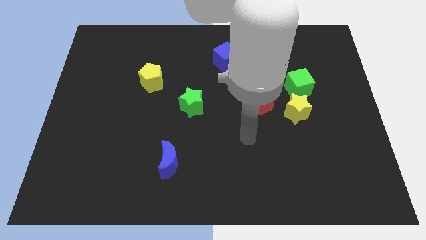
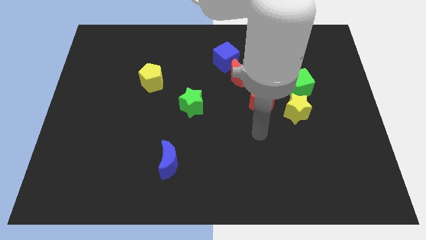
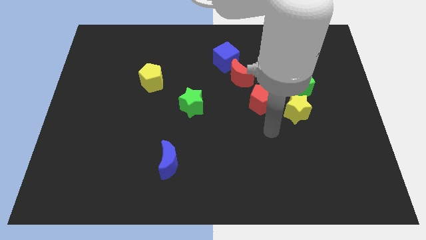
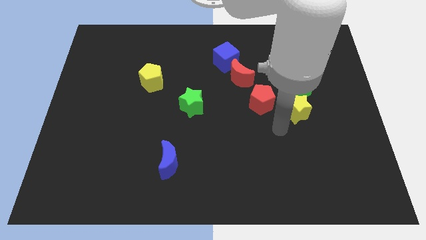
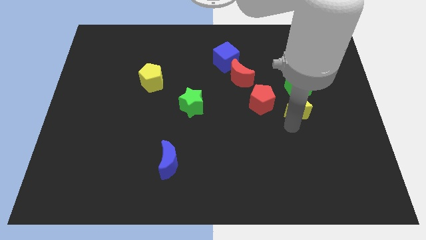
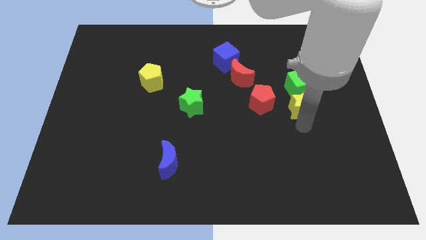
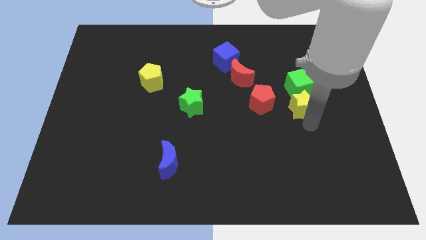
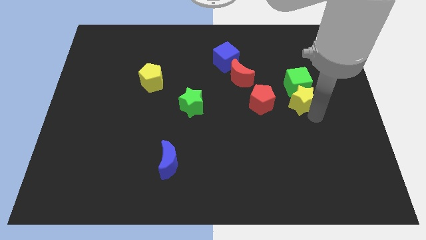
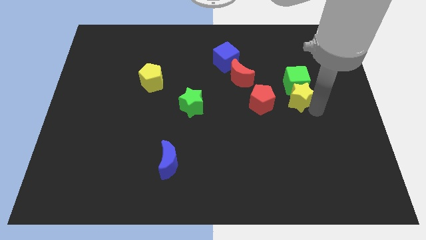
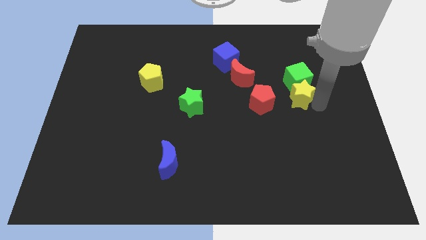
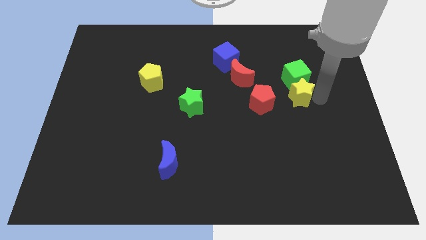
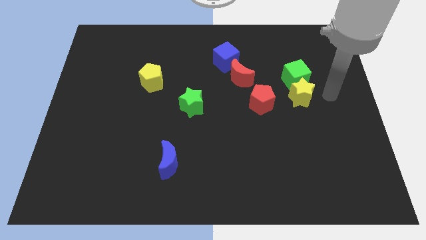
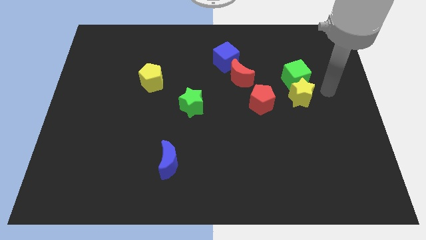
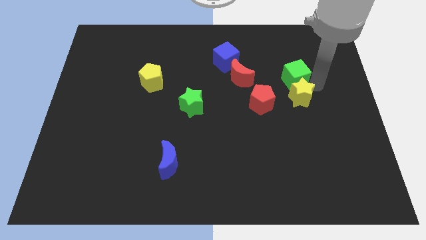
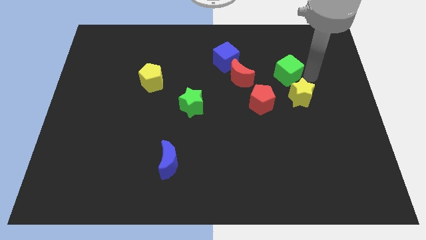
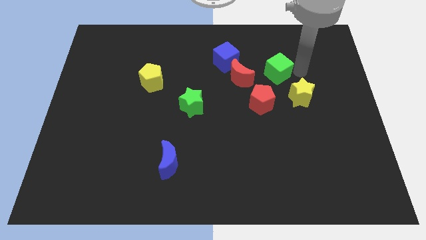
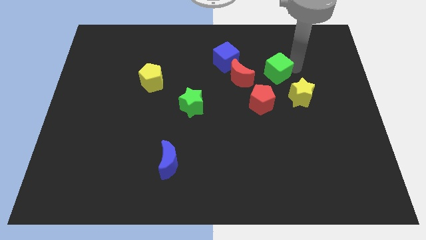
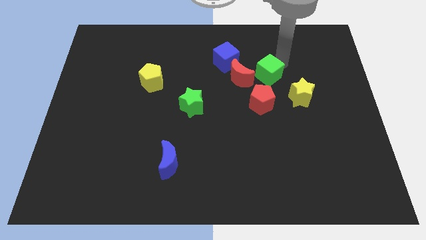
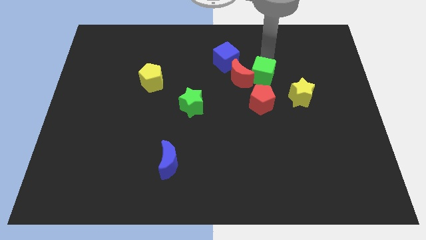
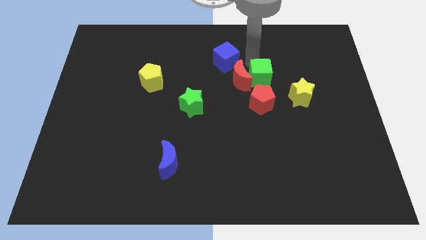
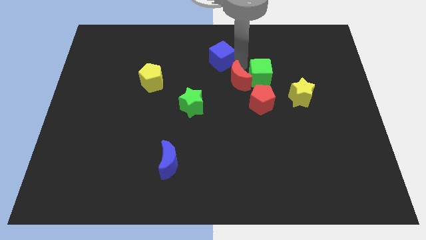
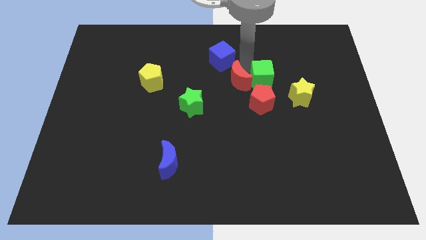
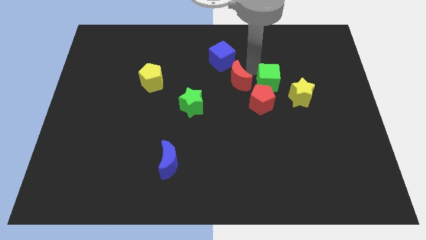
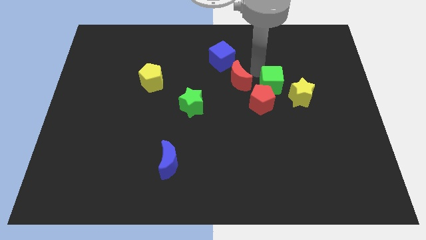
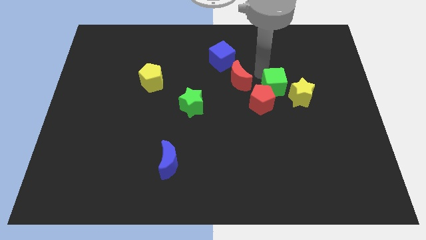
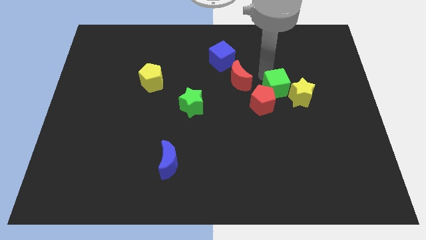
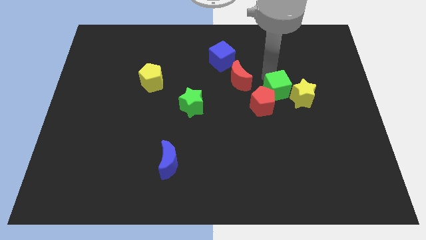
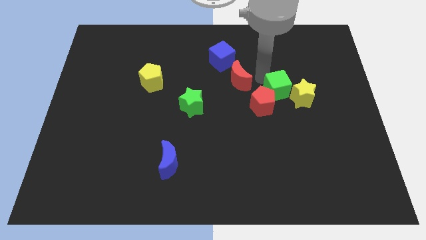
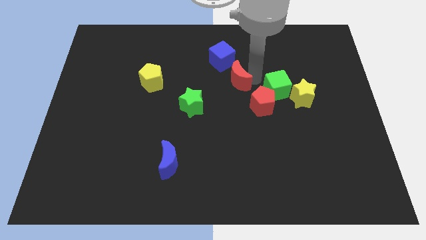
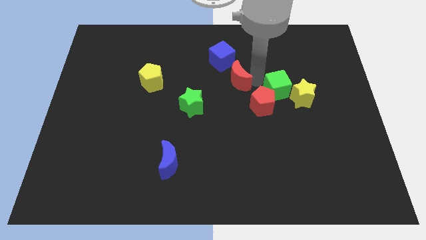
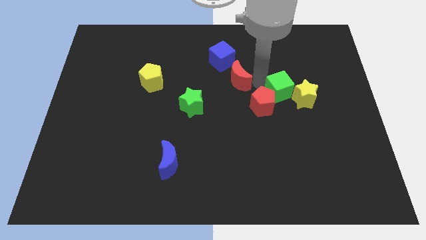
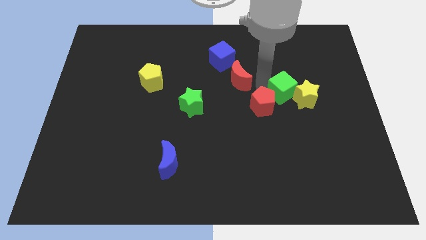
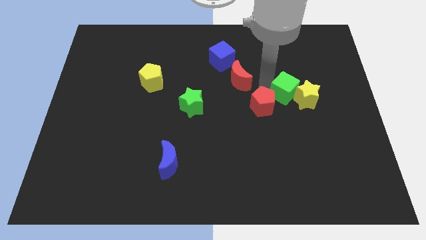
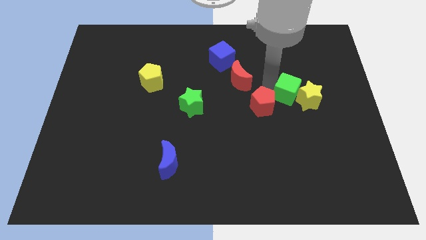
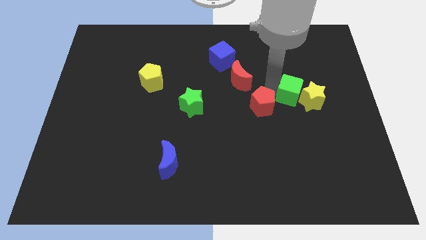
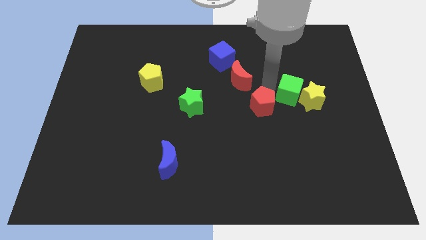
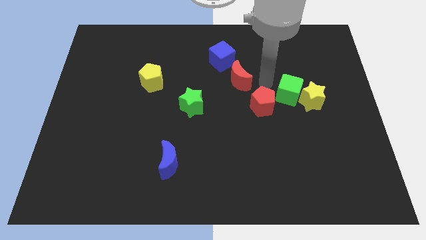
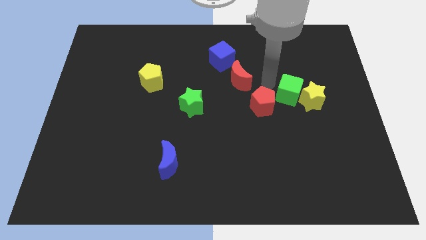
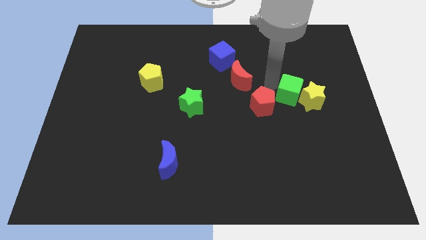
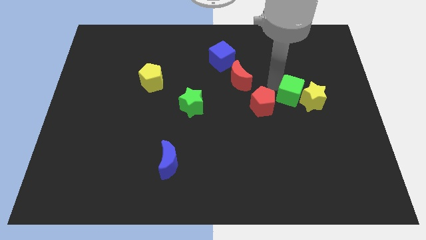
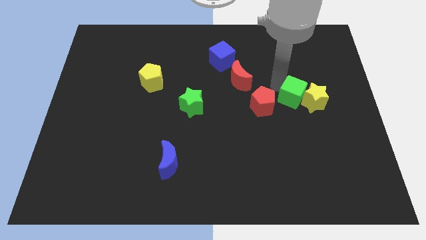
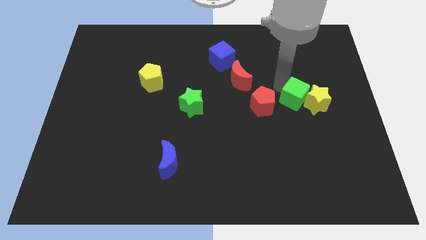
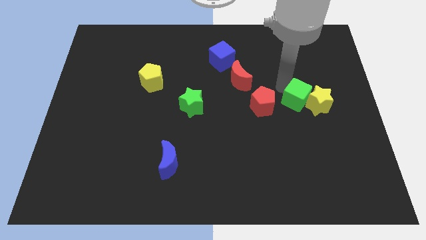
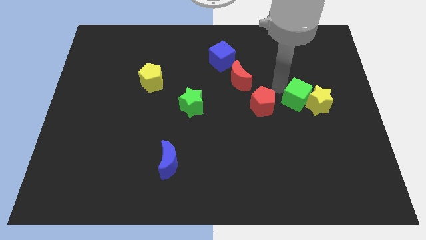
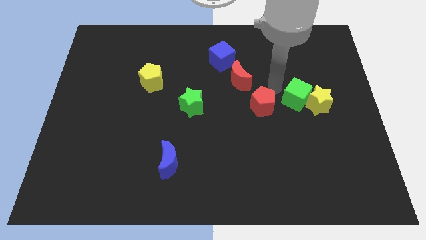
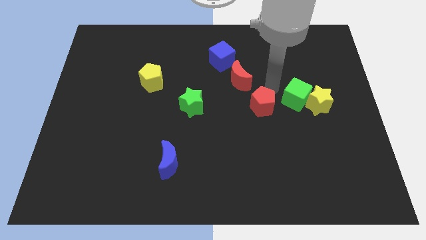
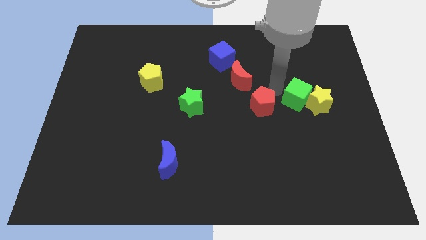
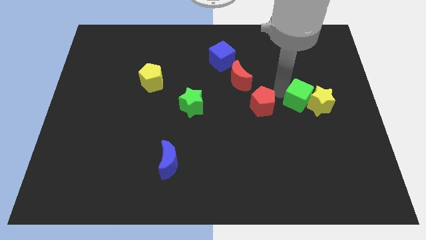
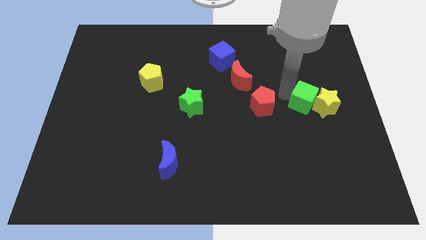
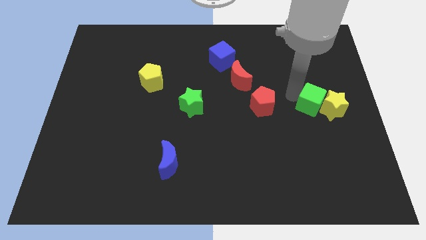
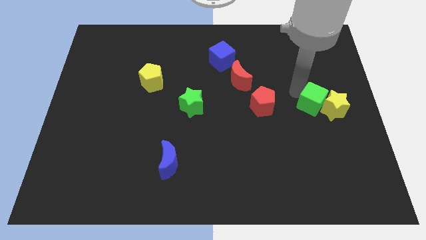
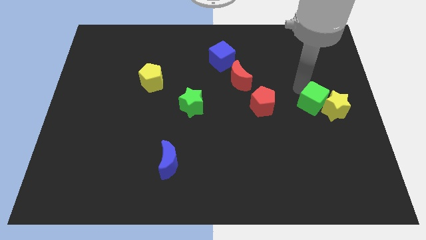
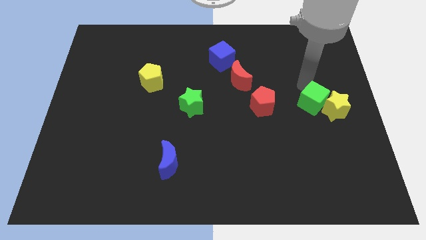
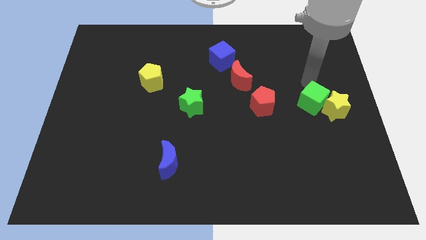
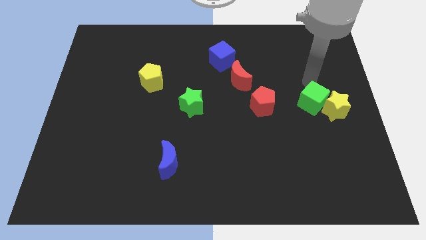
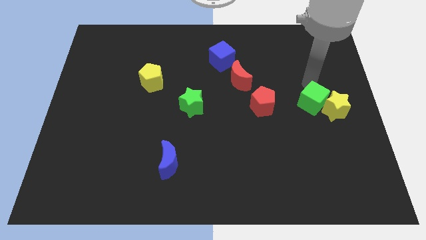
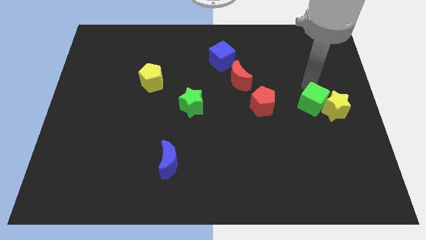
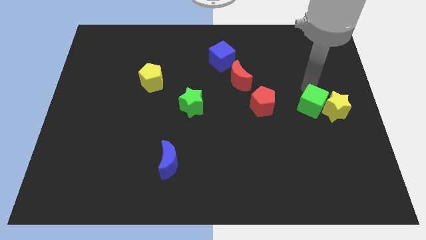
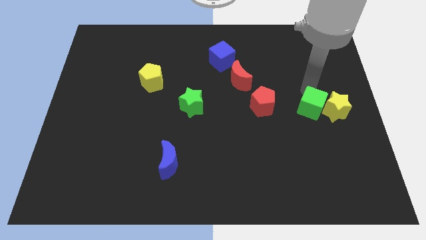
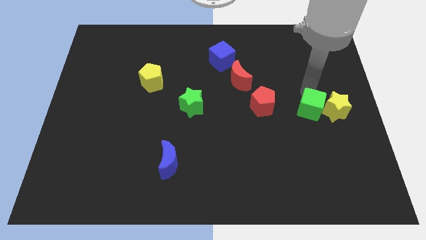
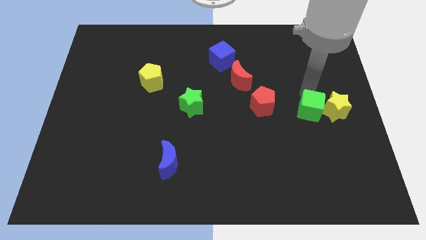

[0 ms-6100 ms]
move the green cube somewhat downwards

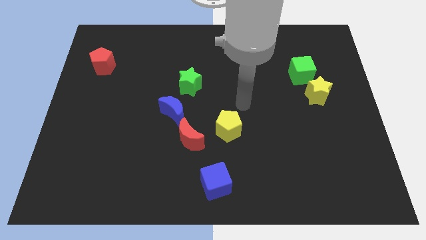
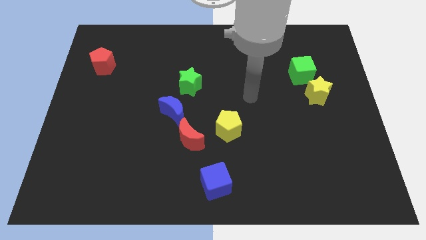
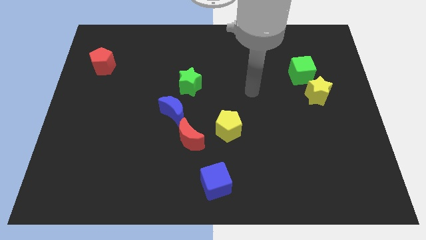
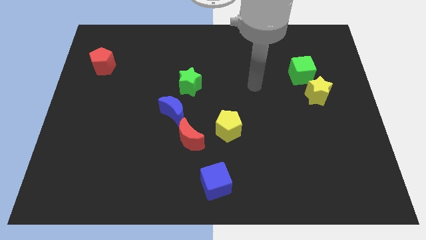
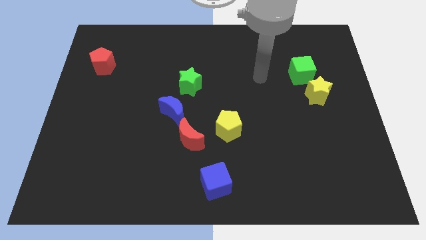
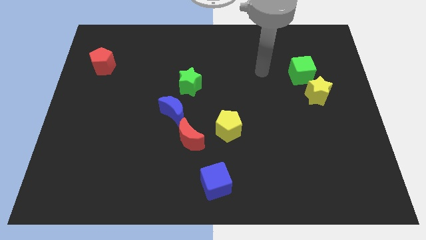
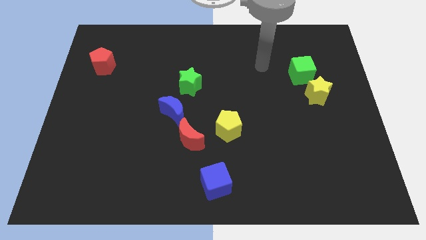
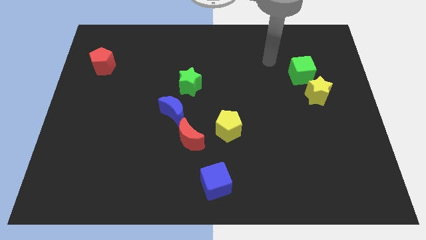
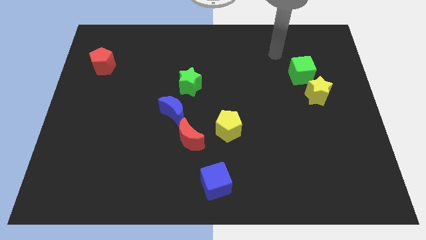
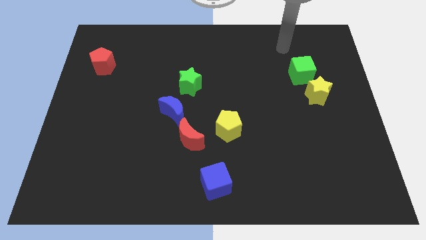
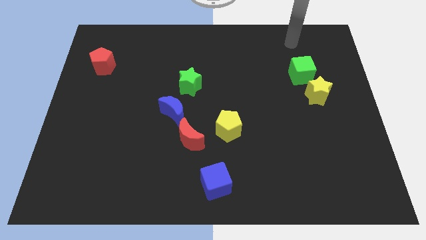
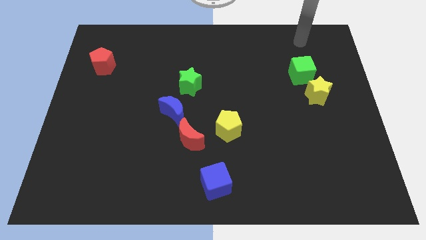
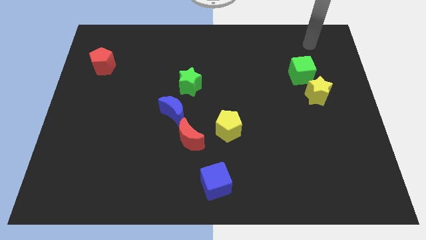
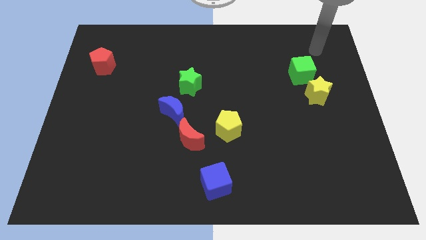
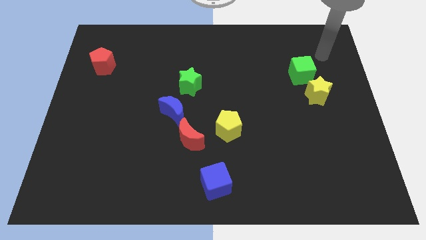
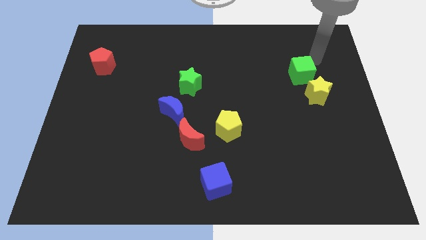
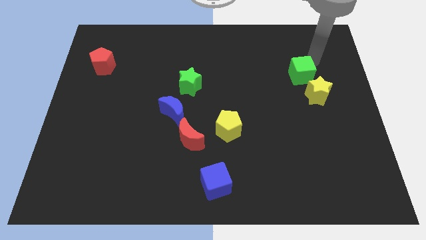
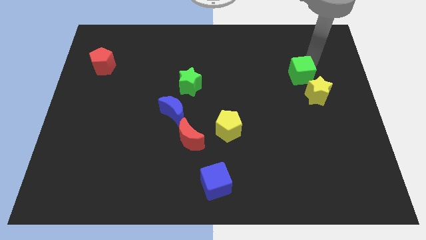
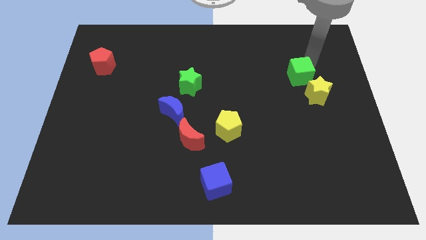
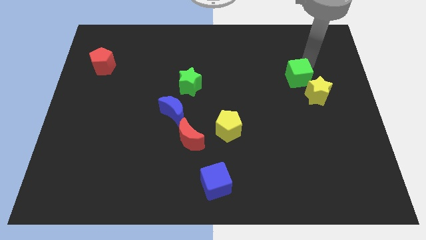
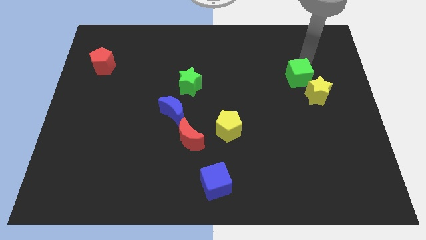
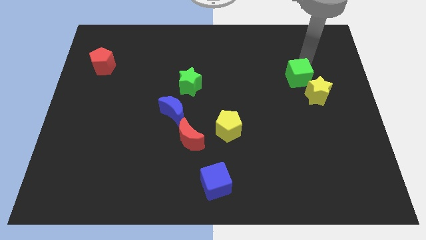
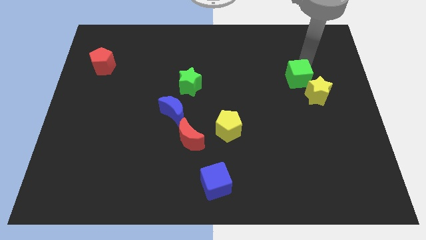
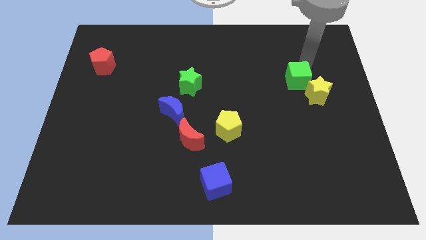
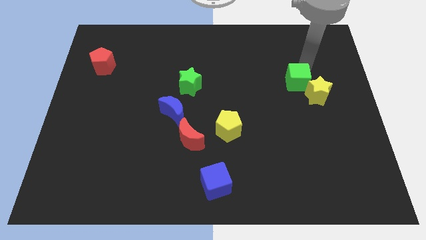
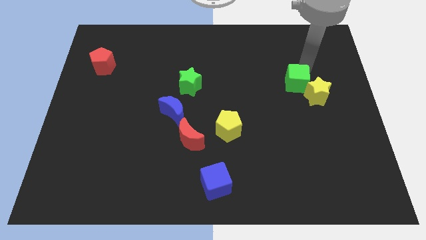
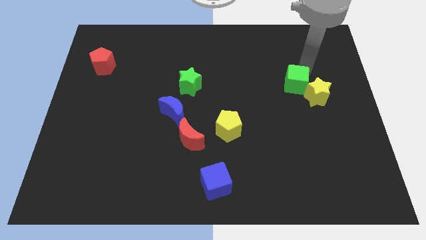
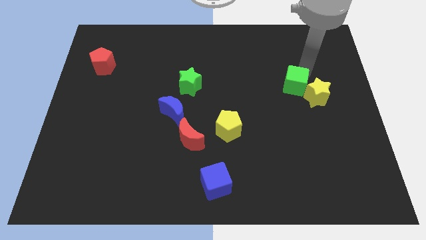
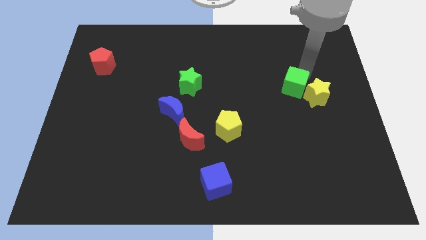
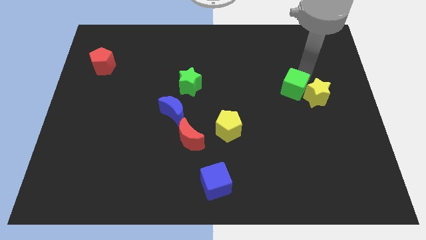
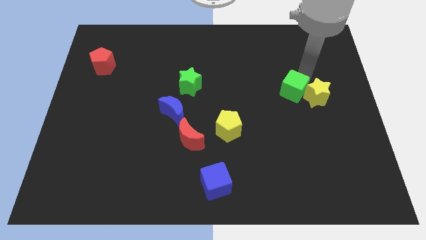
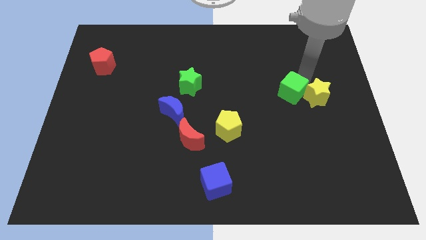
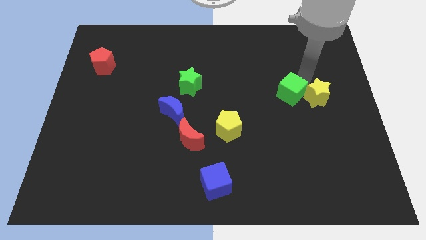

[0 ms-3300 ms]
move the green cube down and to the left diagonally slightly
